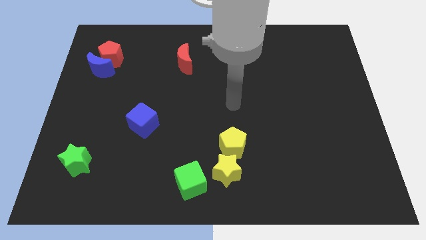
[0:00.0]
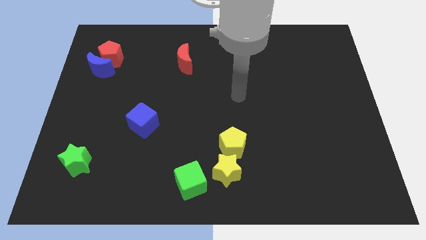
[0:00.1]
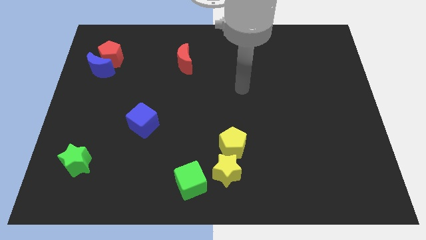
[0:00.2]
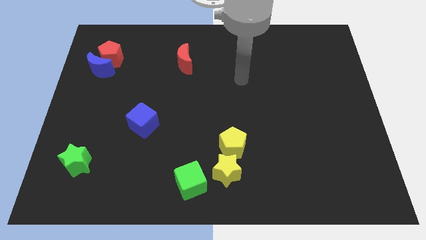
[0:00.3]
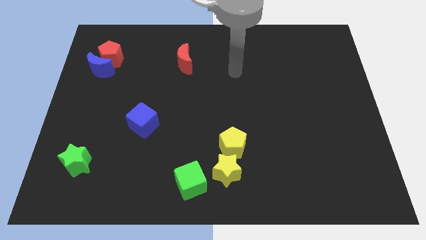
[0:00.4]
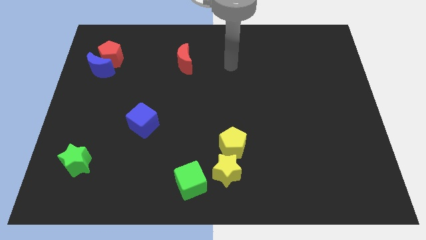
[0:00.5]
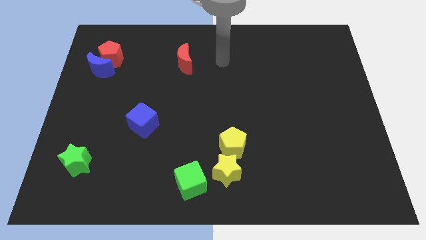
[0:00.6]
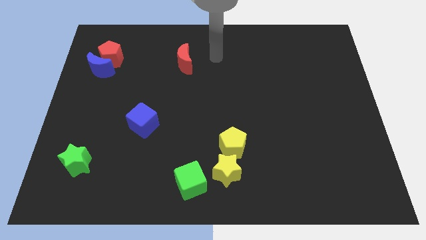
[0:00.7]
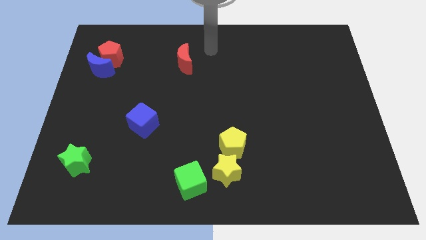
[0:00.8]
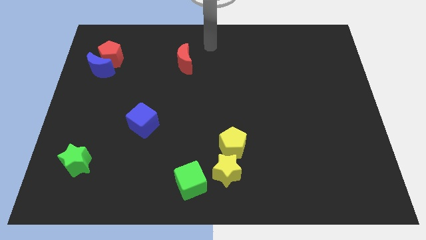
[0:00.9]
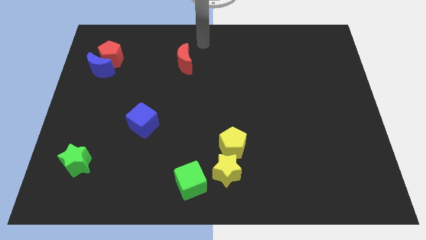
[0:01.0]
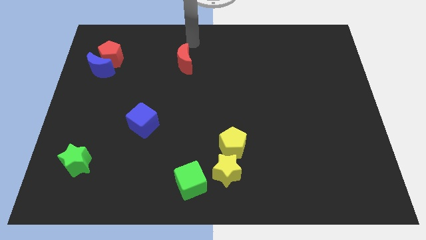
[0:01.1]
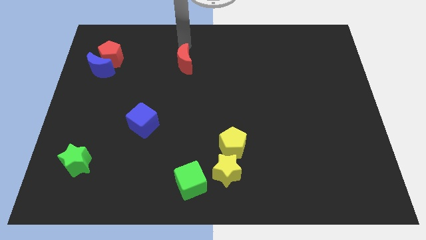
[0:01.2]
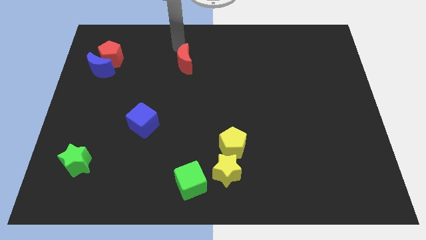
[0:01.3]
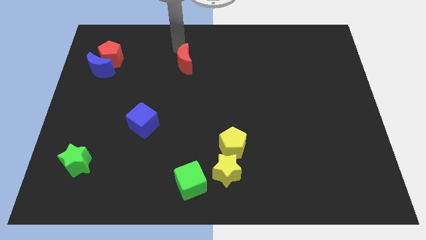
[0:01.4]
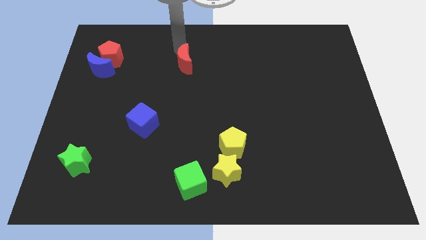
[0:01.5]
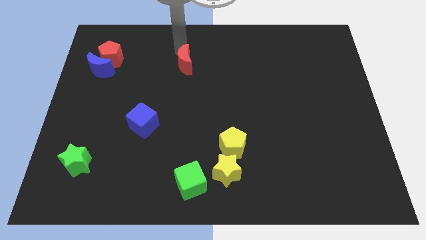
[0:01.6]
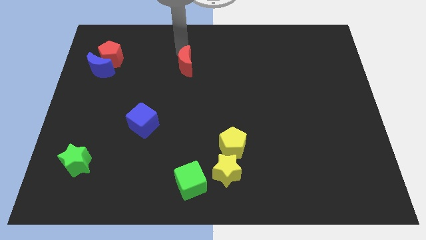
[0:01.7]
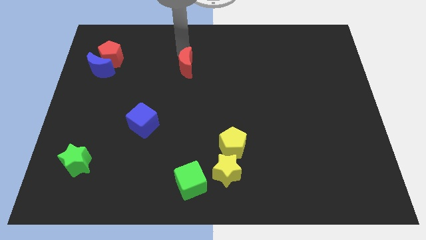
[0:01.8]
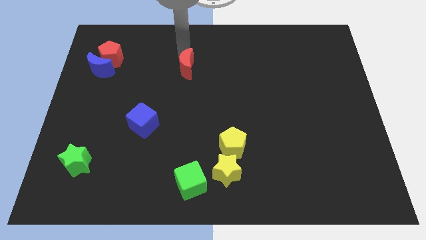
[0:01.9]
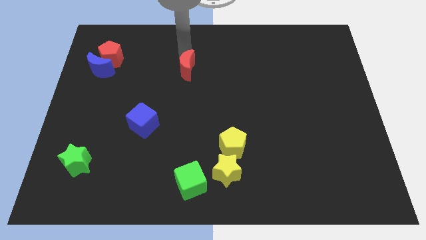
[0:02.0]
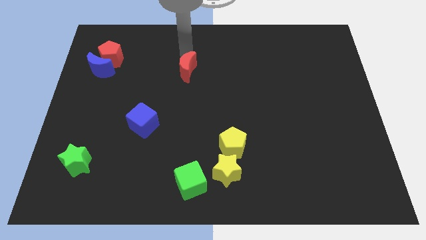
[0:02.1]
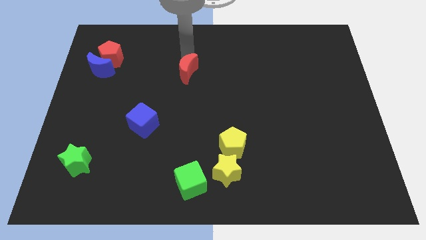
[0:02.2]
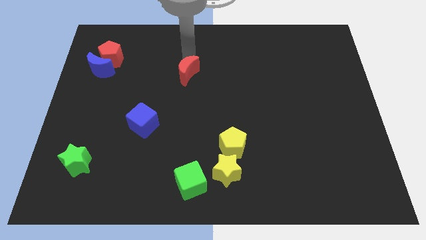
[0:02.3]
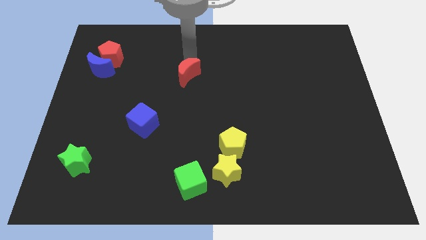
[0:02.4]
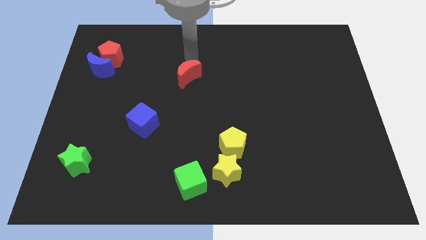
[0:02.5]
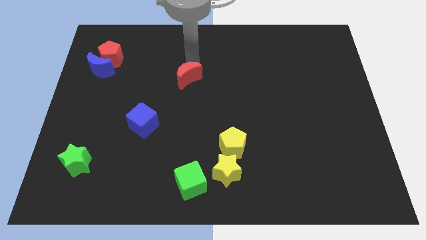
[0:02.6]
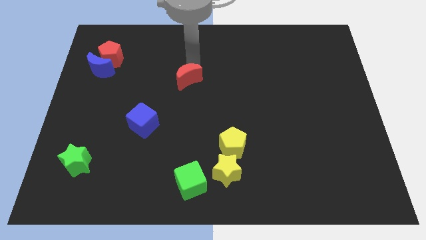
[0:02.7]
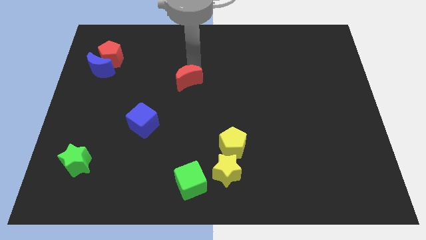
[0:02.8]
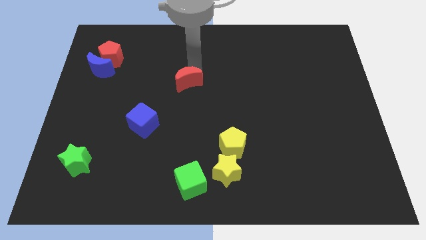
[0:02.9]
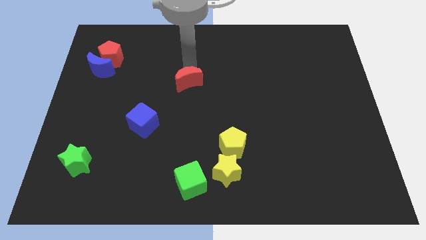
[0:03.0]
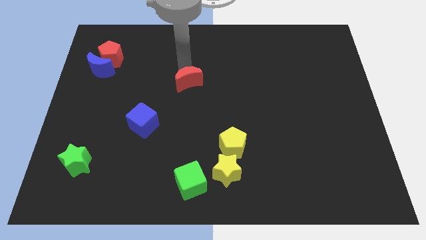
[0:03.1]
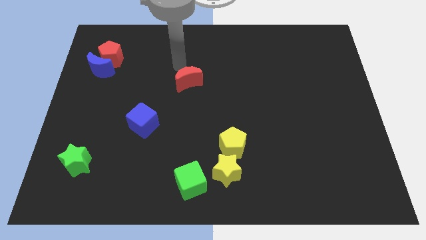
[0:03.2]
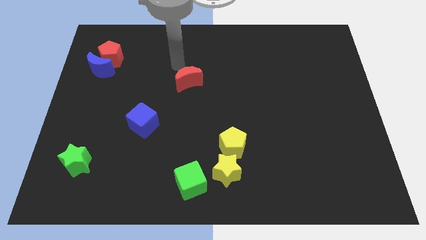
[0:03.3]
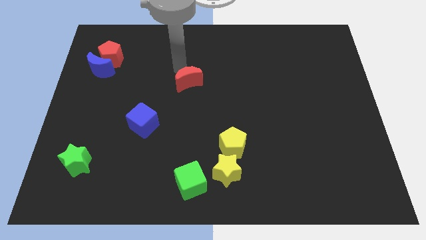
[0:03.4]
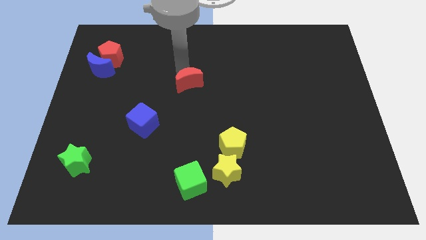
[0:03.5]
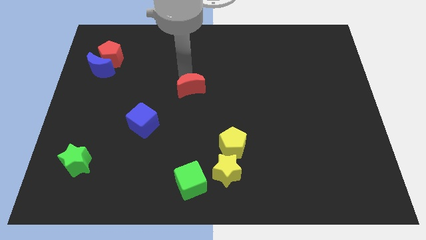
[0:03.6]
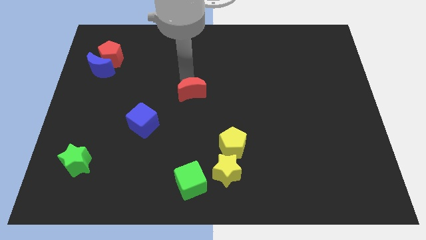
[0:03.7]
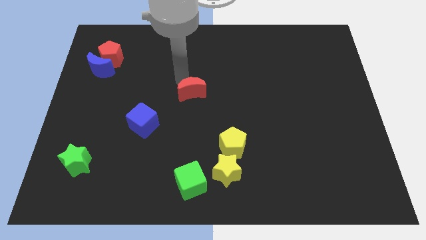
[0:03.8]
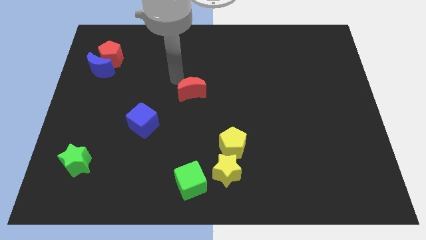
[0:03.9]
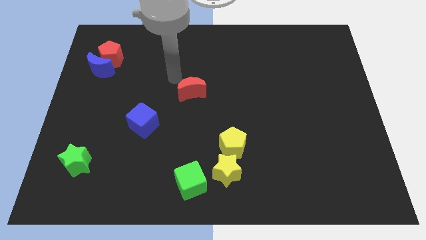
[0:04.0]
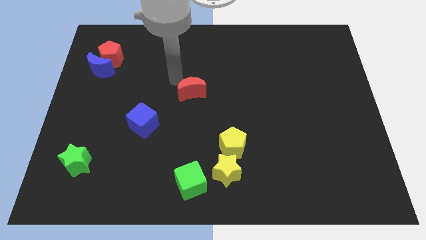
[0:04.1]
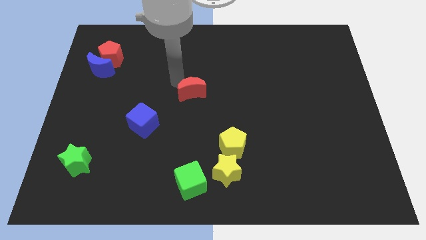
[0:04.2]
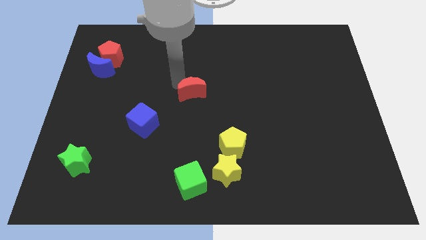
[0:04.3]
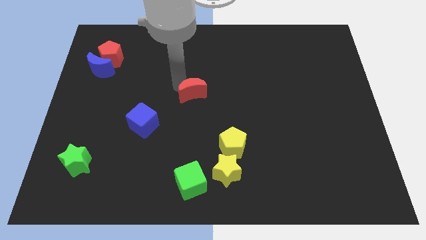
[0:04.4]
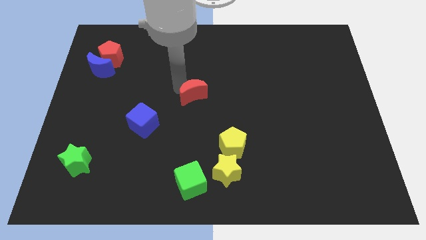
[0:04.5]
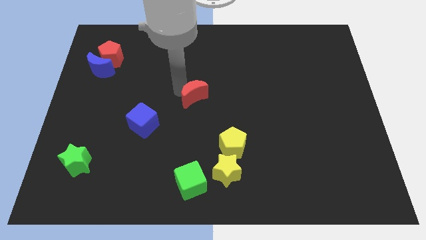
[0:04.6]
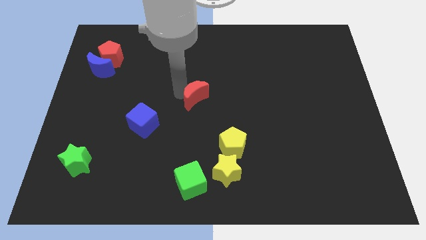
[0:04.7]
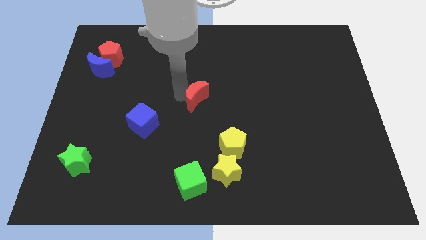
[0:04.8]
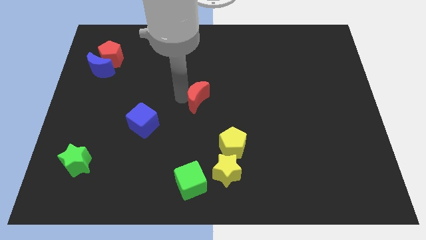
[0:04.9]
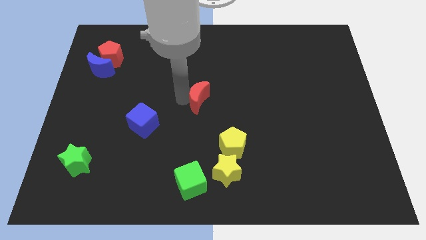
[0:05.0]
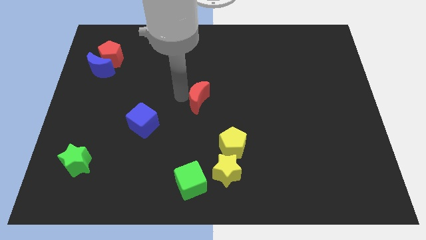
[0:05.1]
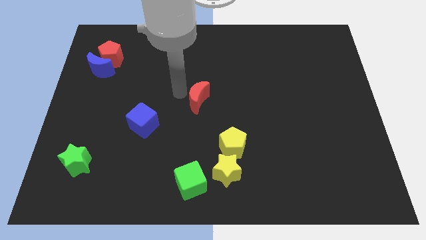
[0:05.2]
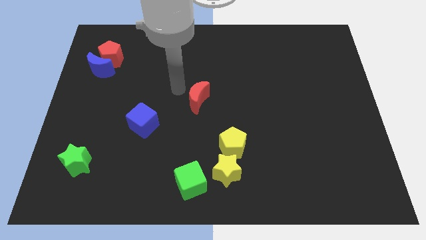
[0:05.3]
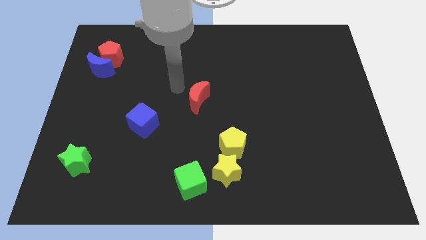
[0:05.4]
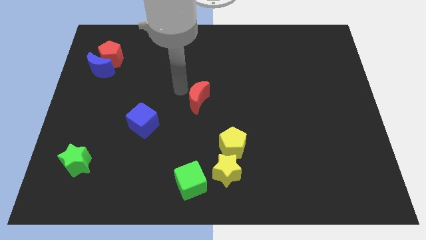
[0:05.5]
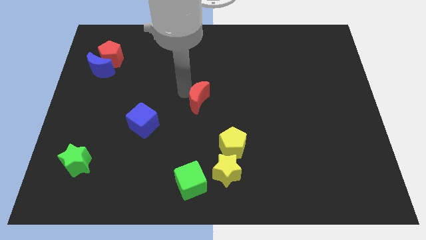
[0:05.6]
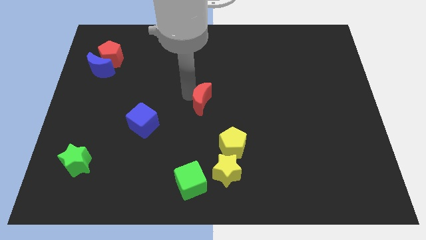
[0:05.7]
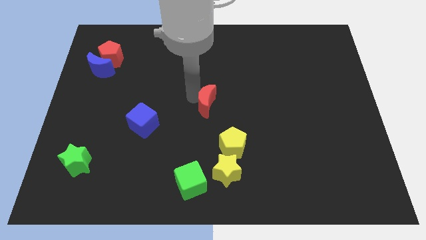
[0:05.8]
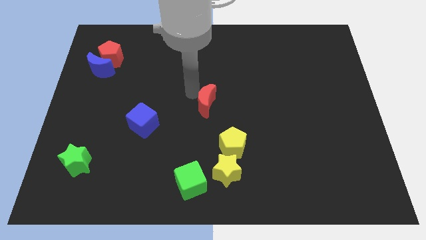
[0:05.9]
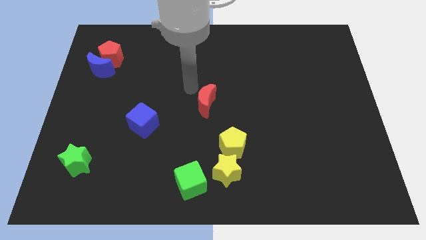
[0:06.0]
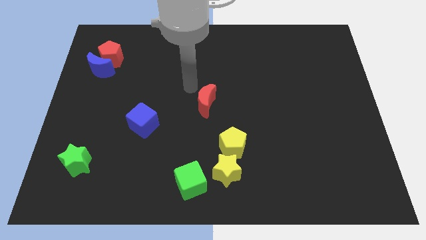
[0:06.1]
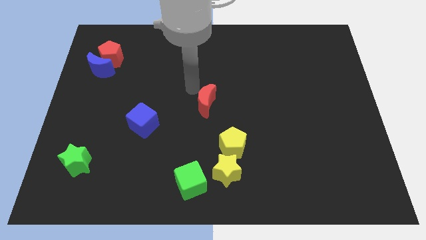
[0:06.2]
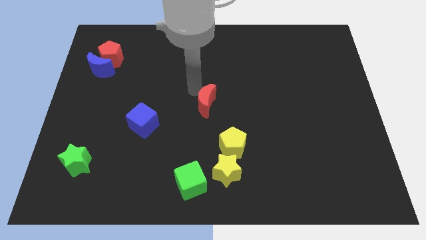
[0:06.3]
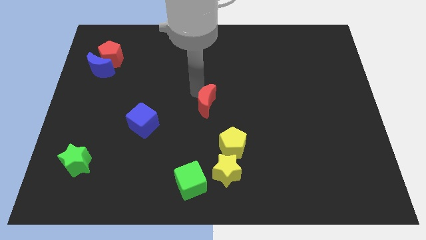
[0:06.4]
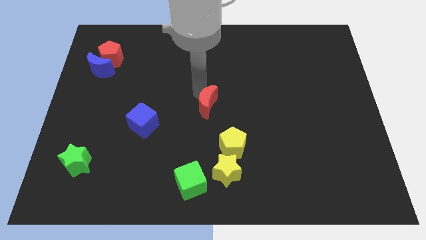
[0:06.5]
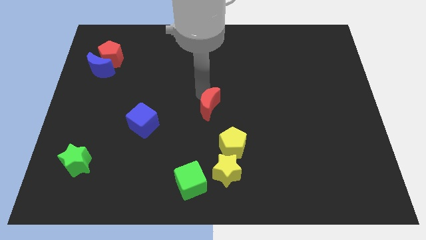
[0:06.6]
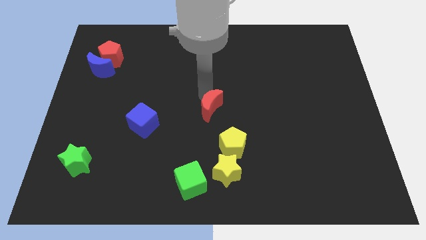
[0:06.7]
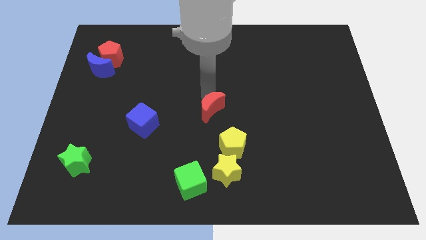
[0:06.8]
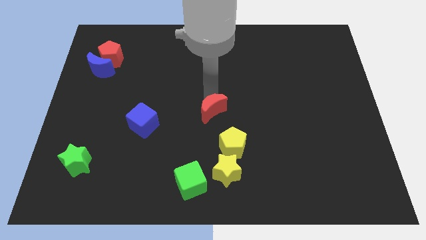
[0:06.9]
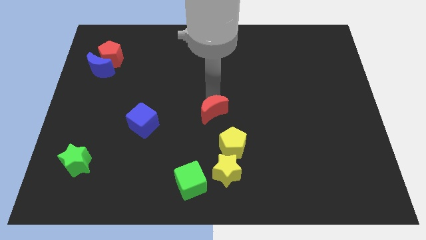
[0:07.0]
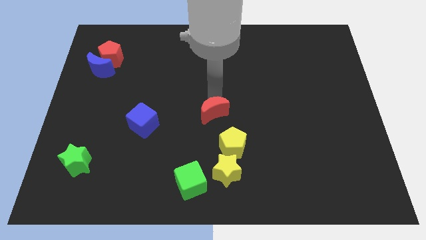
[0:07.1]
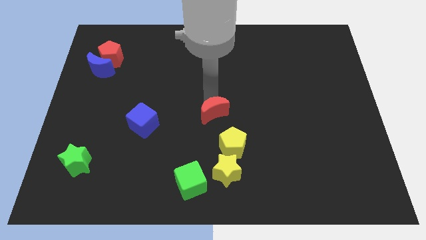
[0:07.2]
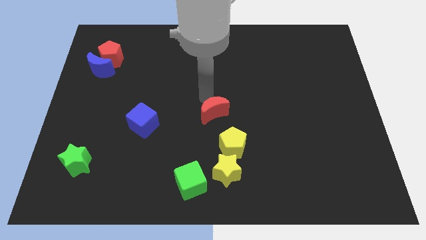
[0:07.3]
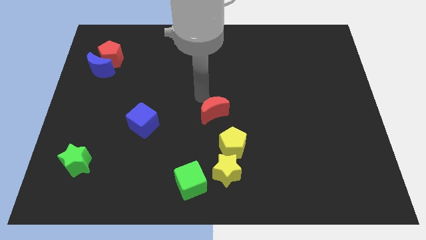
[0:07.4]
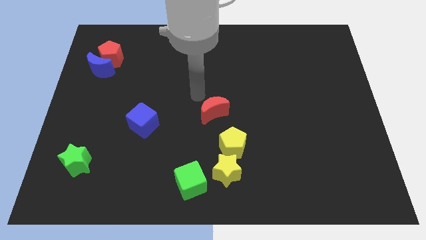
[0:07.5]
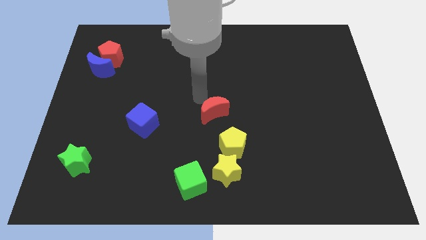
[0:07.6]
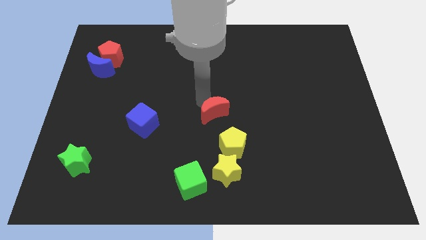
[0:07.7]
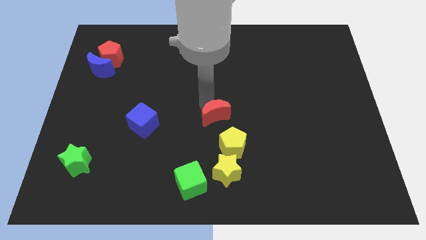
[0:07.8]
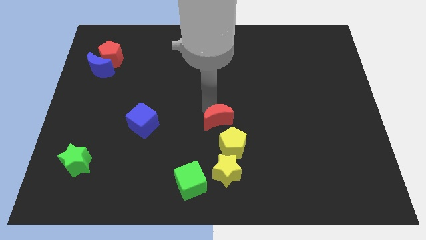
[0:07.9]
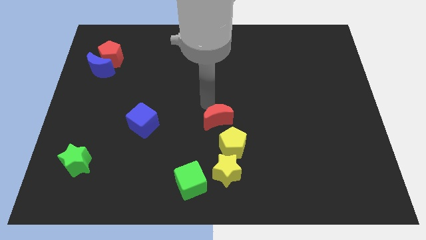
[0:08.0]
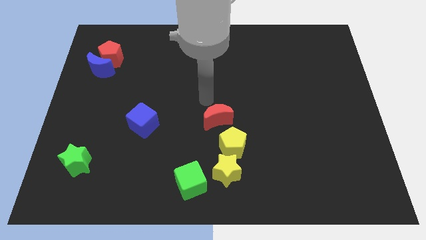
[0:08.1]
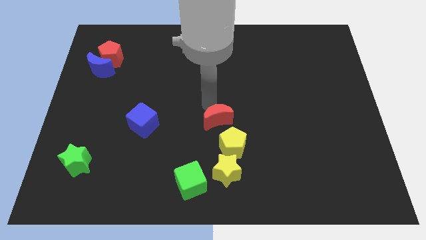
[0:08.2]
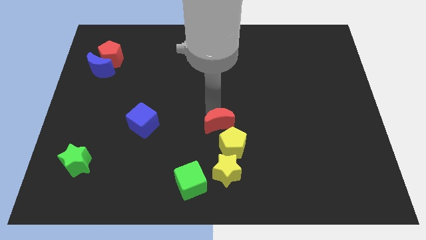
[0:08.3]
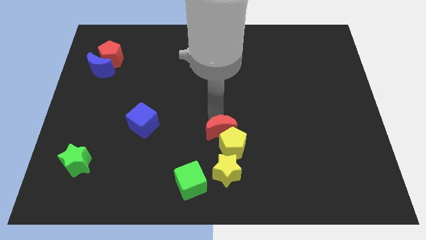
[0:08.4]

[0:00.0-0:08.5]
slide the red moon to the yellow pentagon
